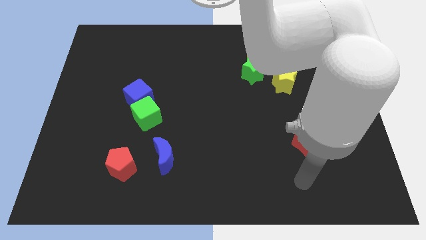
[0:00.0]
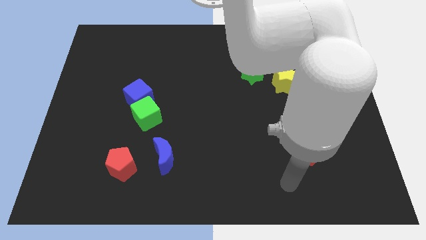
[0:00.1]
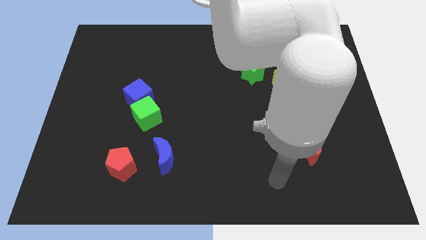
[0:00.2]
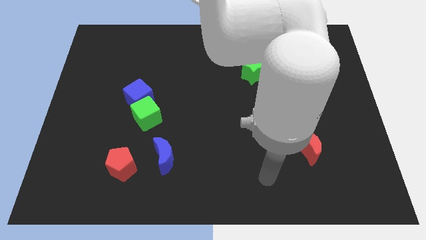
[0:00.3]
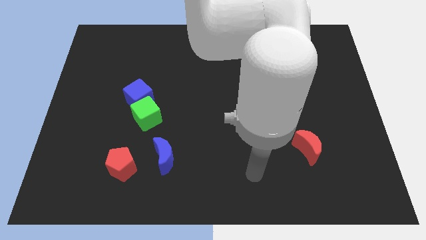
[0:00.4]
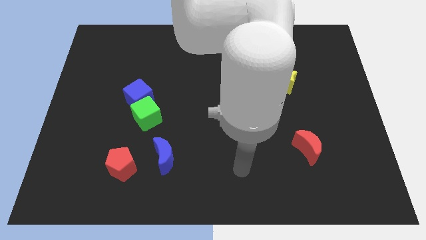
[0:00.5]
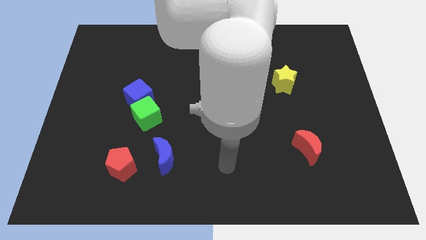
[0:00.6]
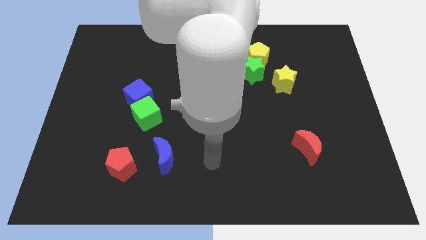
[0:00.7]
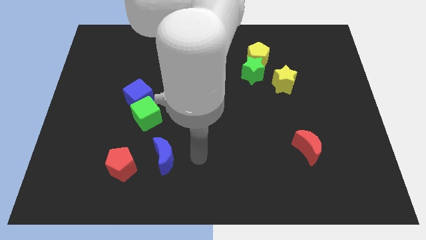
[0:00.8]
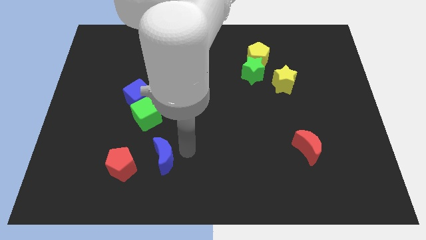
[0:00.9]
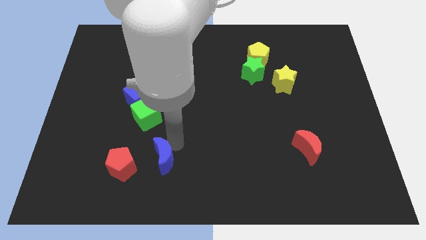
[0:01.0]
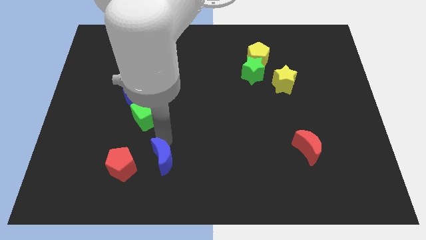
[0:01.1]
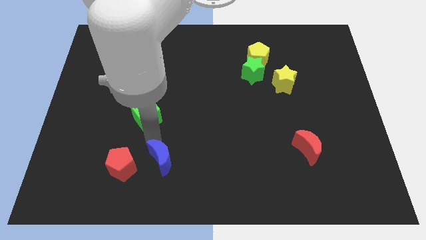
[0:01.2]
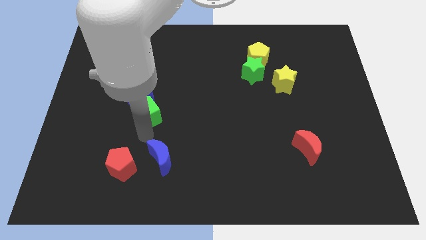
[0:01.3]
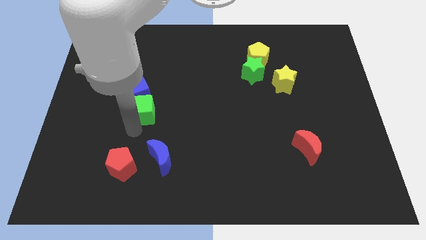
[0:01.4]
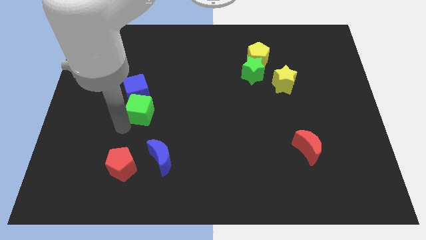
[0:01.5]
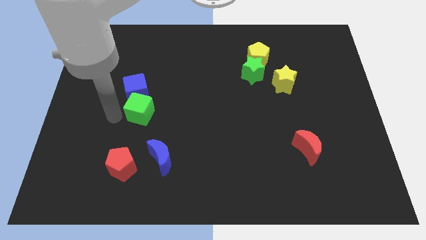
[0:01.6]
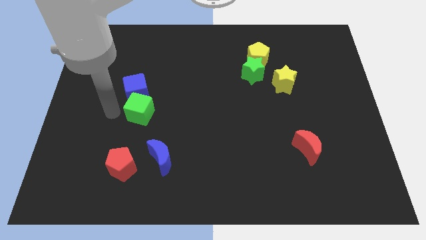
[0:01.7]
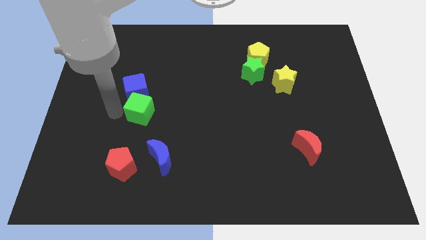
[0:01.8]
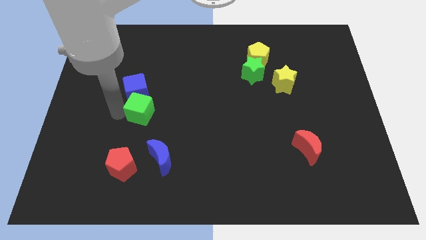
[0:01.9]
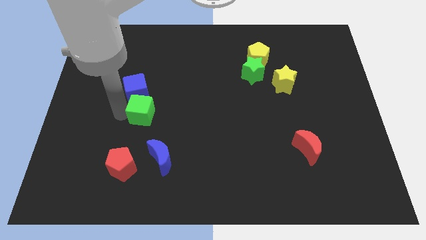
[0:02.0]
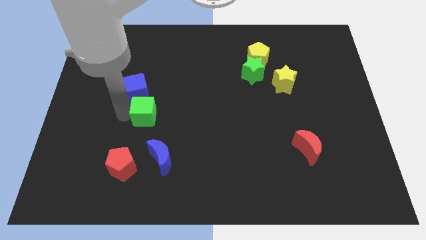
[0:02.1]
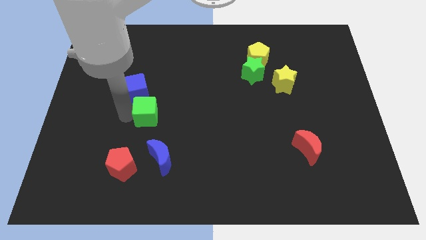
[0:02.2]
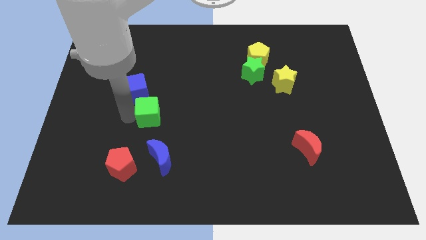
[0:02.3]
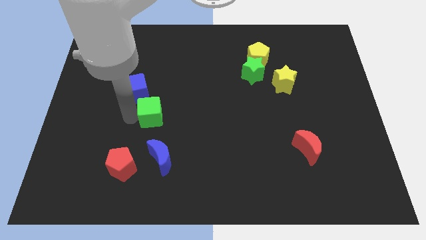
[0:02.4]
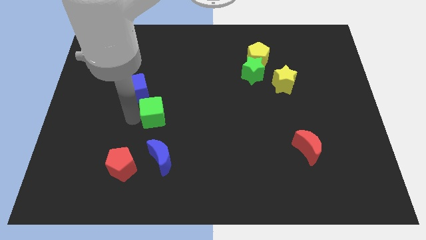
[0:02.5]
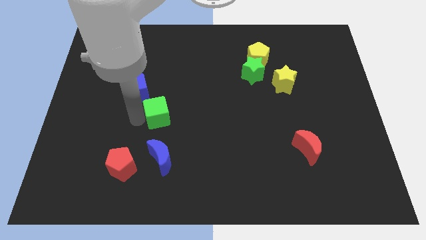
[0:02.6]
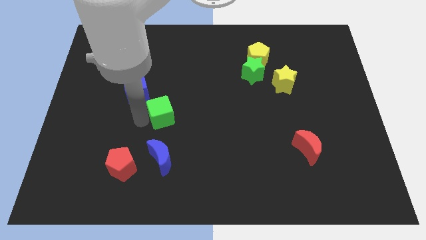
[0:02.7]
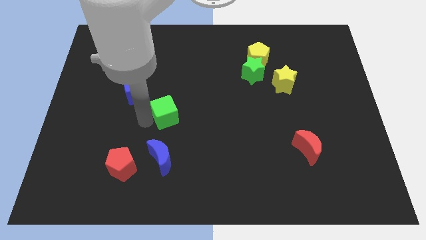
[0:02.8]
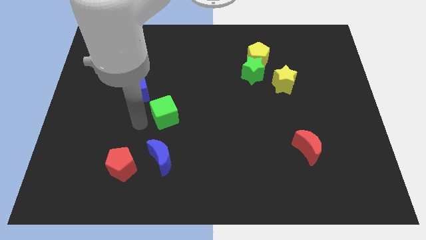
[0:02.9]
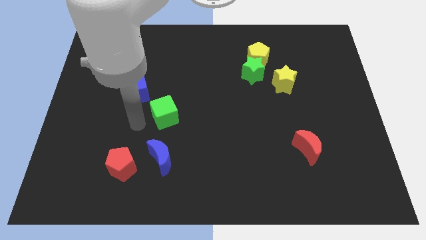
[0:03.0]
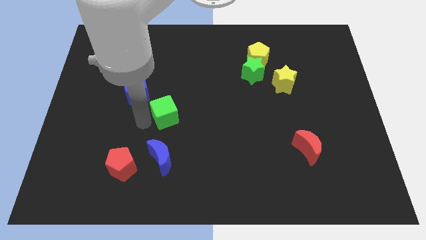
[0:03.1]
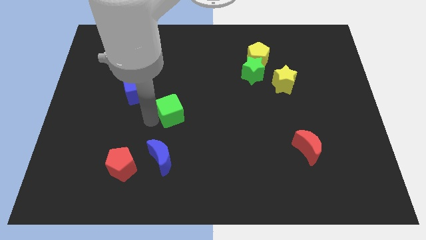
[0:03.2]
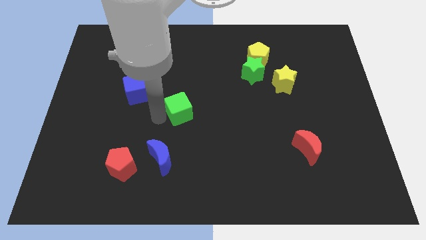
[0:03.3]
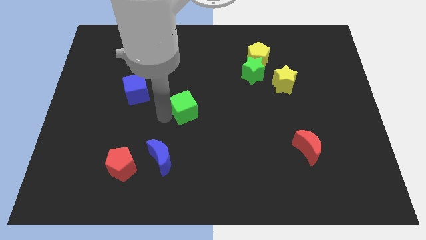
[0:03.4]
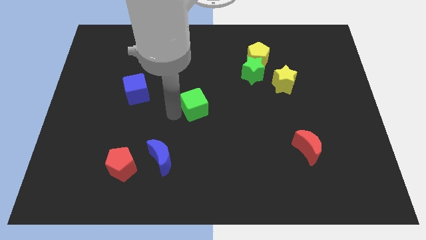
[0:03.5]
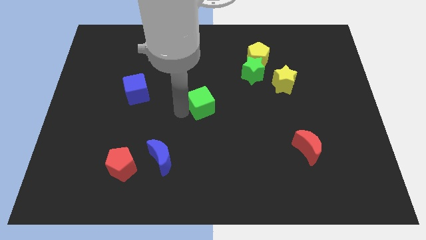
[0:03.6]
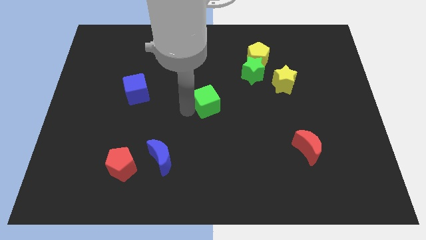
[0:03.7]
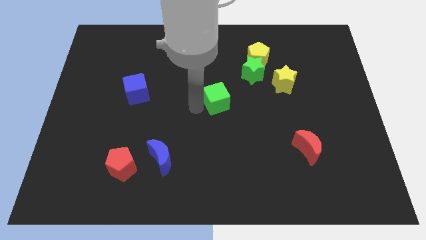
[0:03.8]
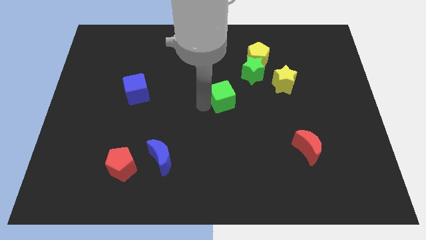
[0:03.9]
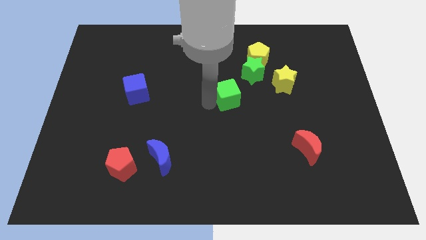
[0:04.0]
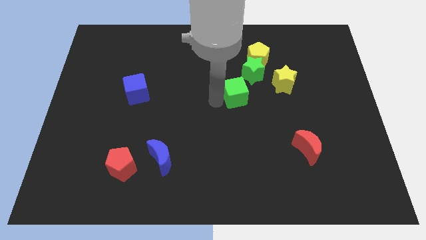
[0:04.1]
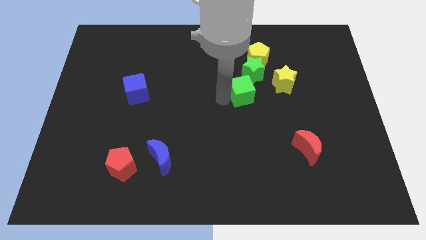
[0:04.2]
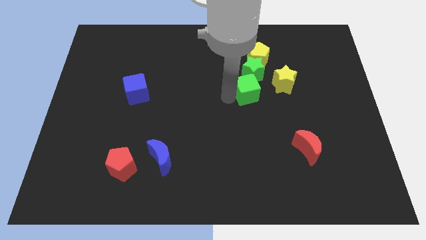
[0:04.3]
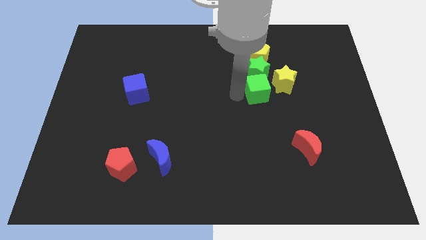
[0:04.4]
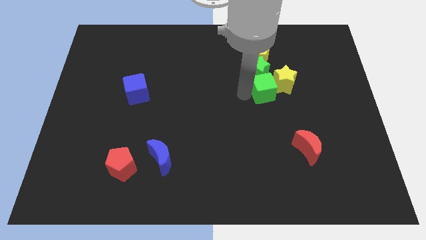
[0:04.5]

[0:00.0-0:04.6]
slide the green cube towards the yellow star

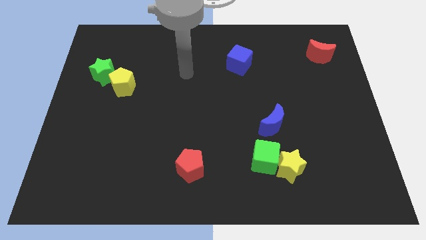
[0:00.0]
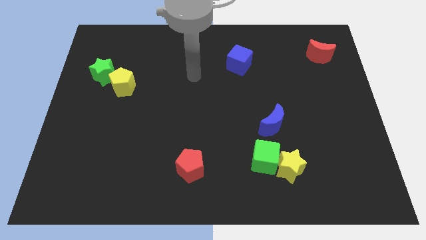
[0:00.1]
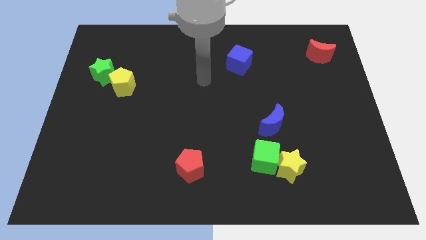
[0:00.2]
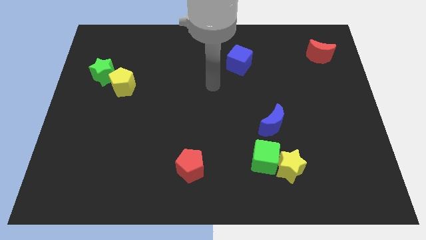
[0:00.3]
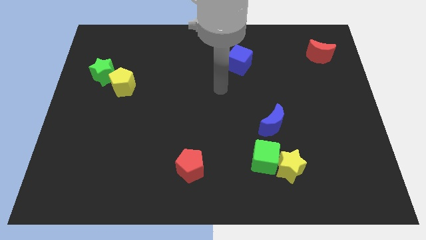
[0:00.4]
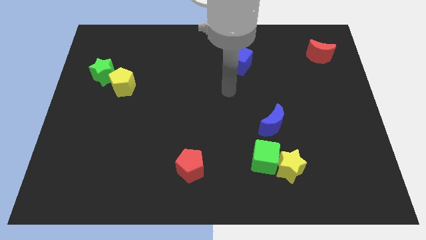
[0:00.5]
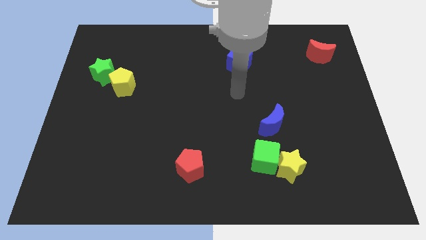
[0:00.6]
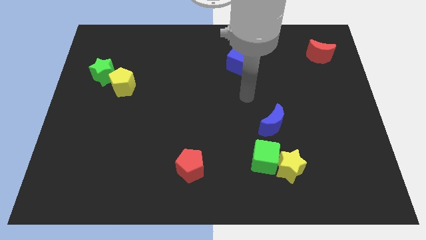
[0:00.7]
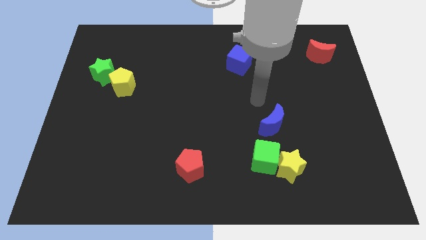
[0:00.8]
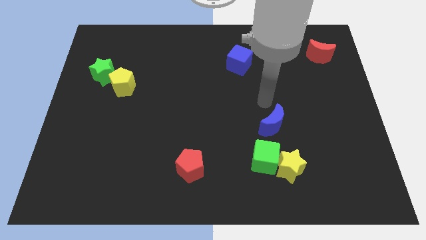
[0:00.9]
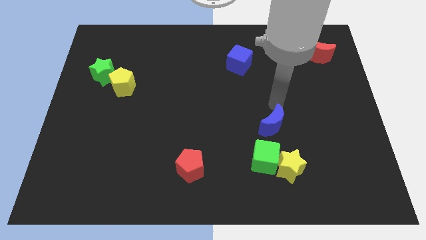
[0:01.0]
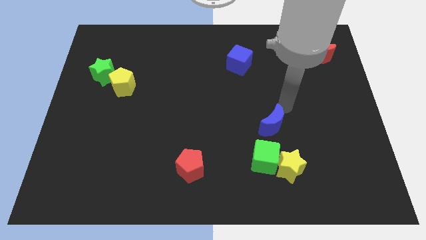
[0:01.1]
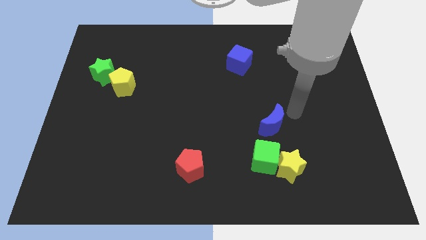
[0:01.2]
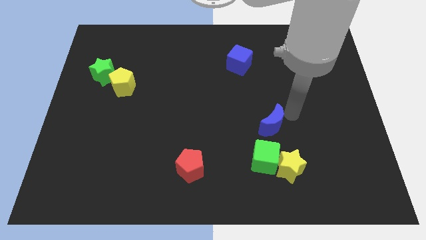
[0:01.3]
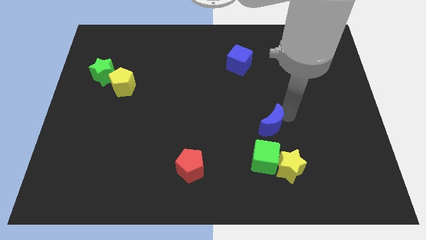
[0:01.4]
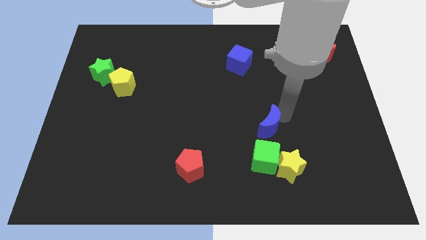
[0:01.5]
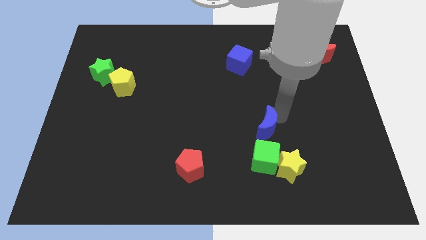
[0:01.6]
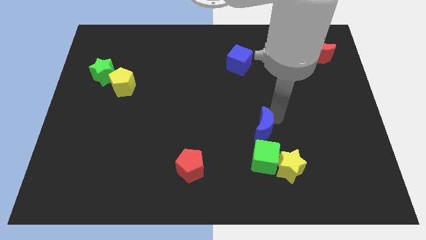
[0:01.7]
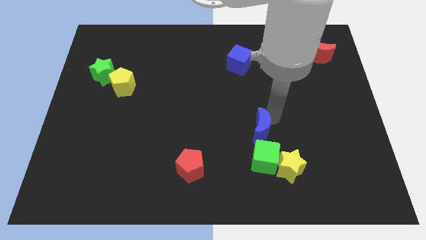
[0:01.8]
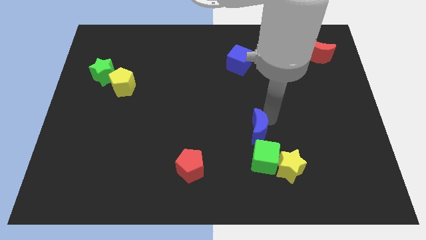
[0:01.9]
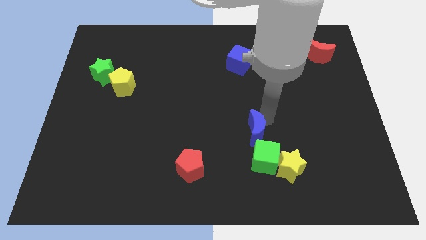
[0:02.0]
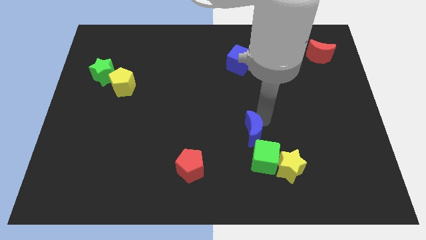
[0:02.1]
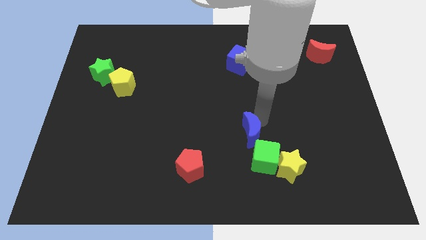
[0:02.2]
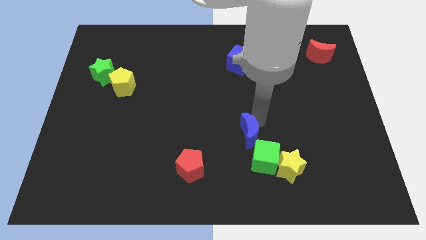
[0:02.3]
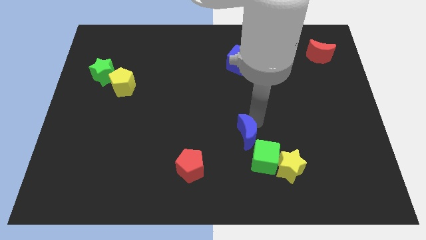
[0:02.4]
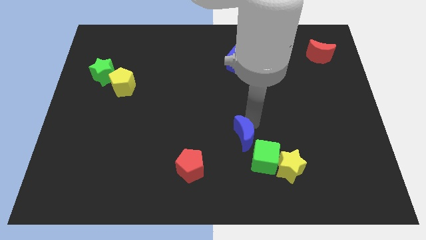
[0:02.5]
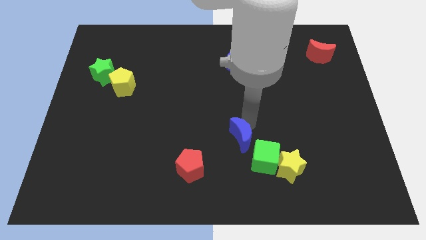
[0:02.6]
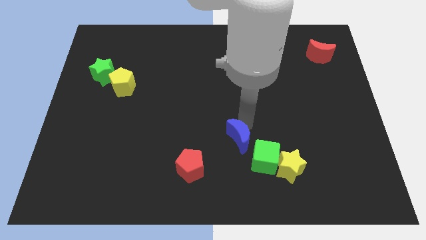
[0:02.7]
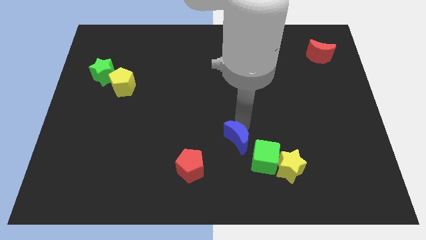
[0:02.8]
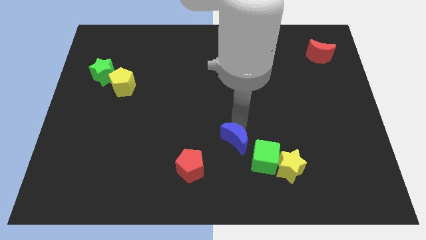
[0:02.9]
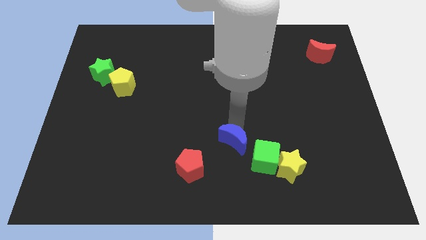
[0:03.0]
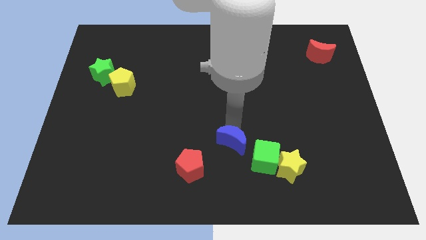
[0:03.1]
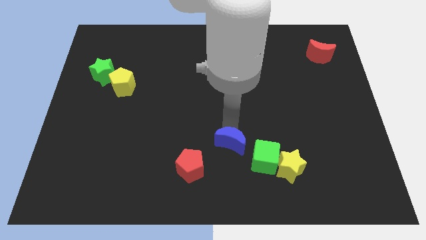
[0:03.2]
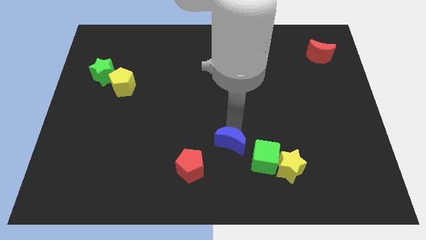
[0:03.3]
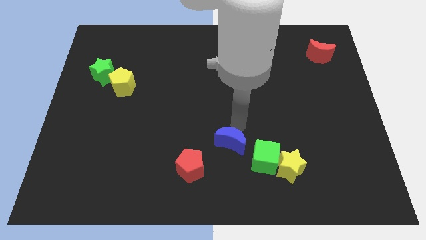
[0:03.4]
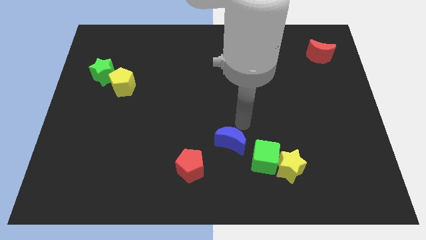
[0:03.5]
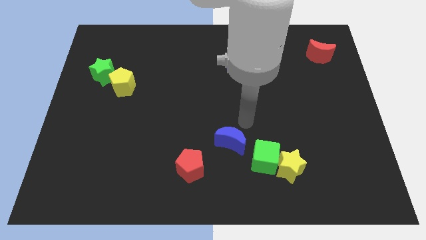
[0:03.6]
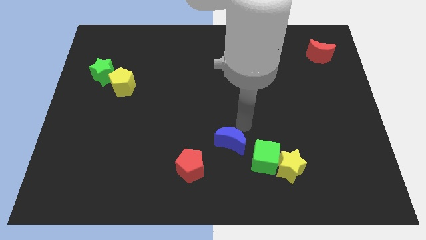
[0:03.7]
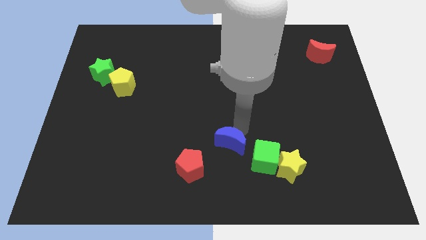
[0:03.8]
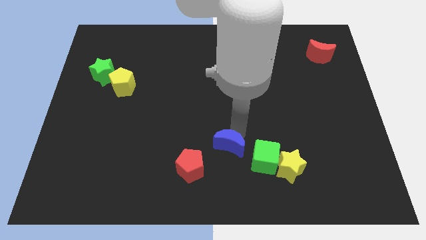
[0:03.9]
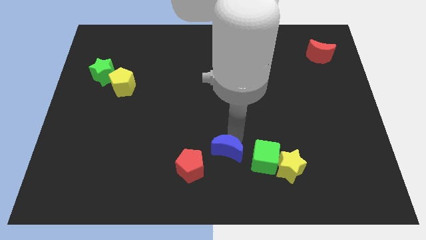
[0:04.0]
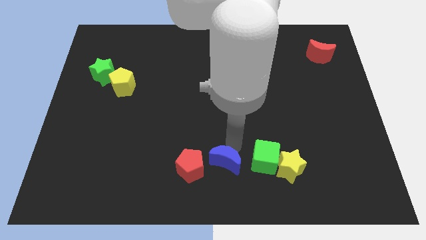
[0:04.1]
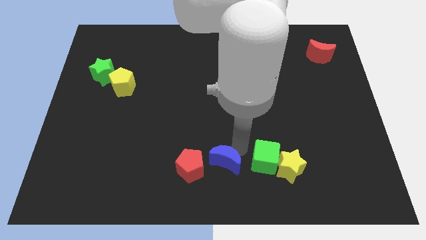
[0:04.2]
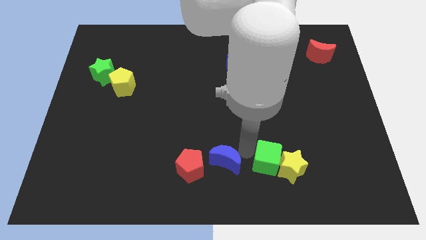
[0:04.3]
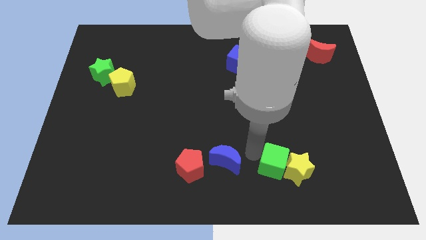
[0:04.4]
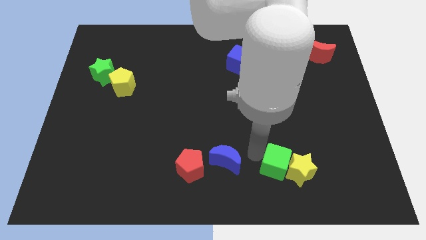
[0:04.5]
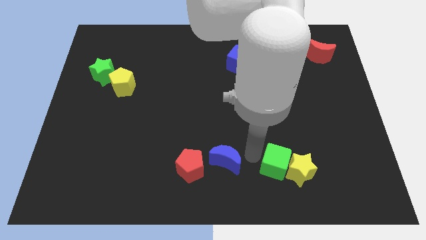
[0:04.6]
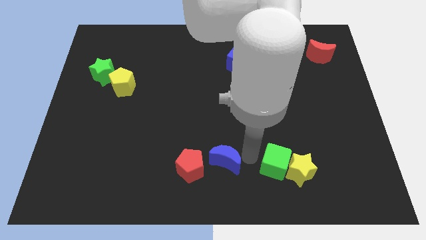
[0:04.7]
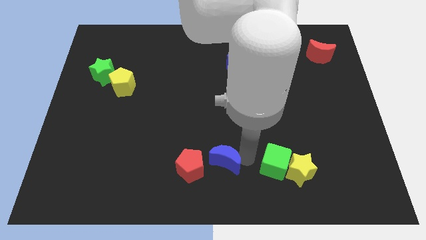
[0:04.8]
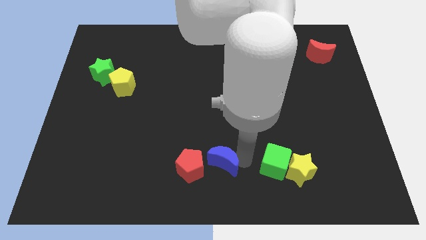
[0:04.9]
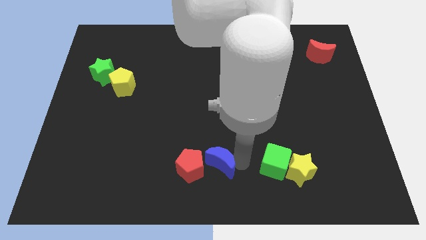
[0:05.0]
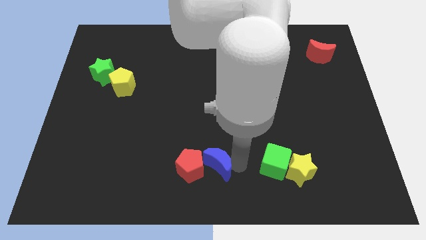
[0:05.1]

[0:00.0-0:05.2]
slide the blue moon towards the red pentagon
